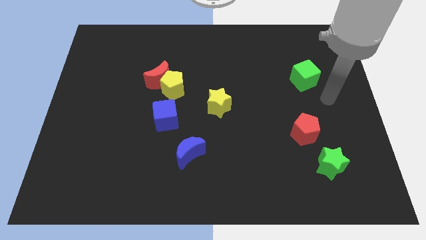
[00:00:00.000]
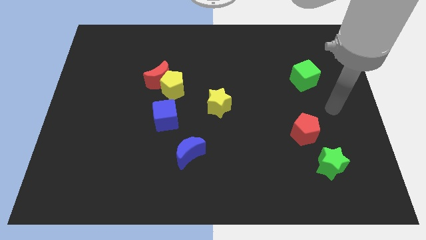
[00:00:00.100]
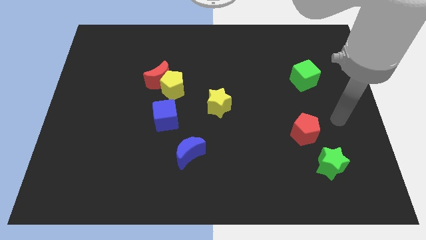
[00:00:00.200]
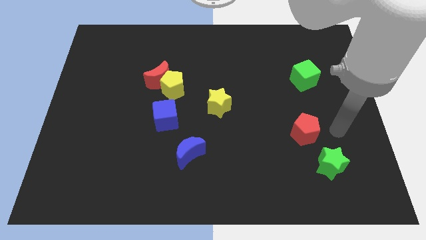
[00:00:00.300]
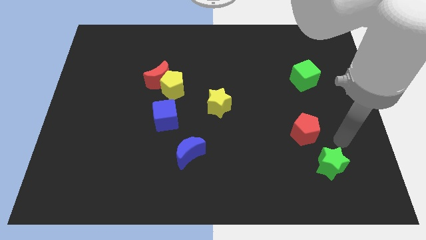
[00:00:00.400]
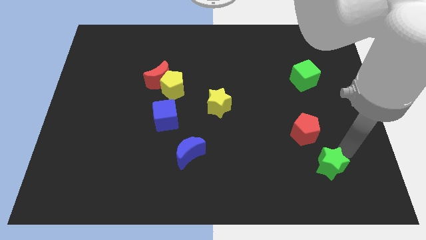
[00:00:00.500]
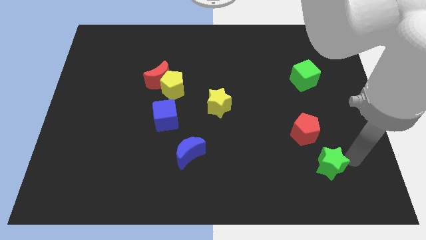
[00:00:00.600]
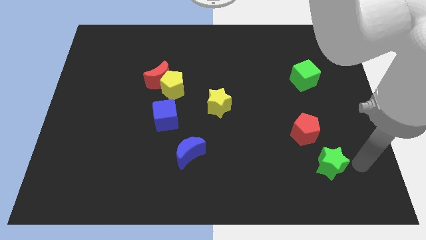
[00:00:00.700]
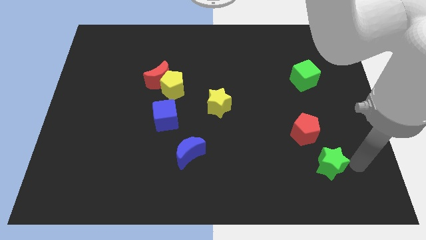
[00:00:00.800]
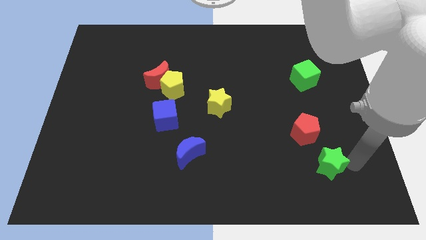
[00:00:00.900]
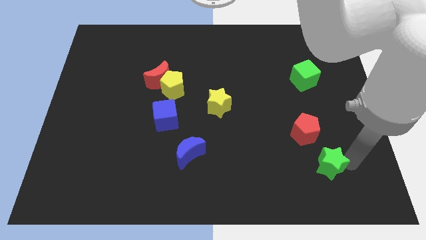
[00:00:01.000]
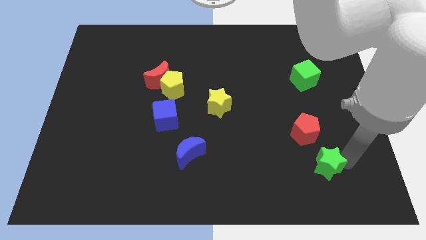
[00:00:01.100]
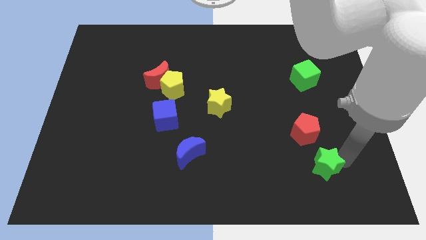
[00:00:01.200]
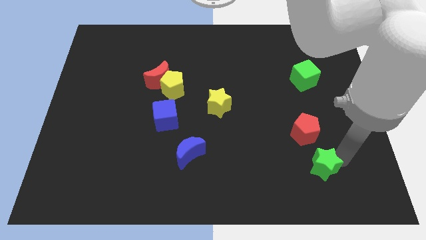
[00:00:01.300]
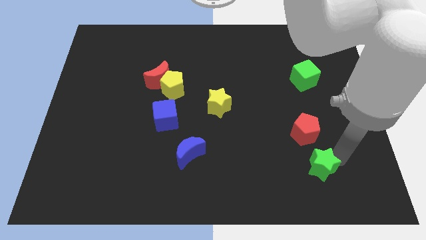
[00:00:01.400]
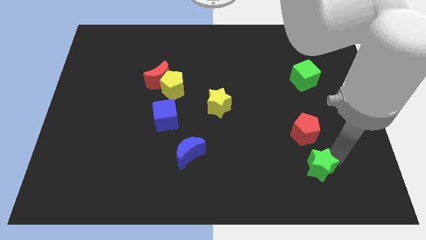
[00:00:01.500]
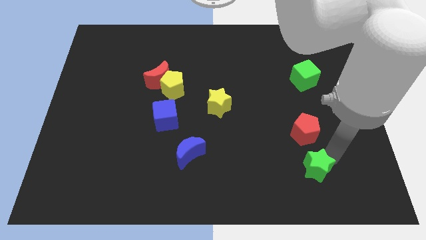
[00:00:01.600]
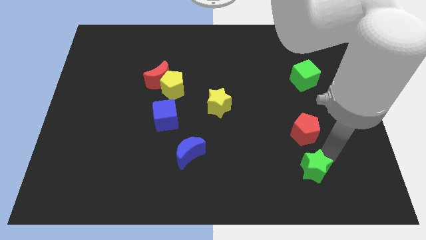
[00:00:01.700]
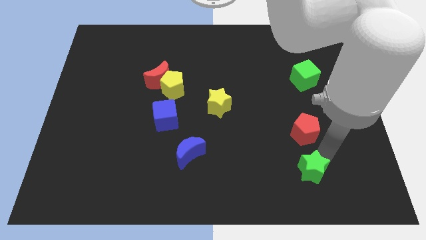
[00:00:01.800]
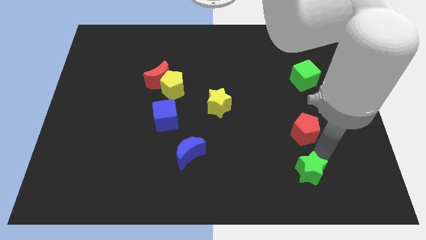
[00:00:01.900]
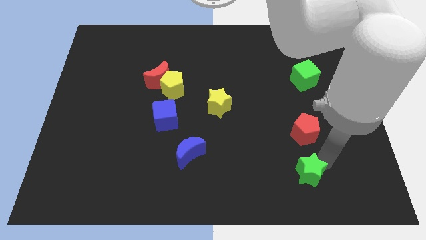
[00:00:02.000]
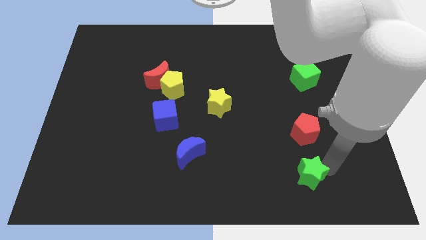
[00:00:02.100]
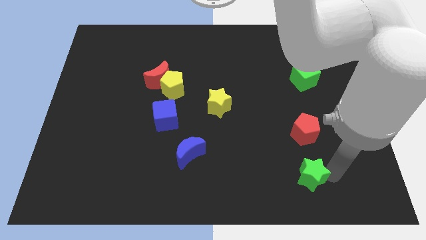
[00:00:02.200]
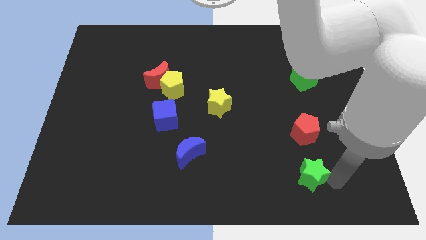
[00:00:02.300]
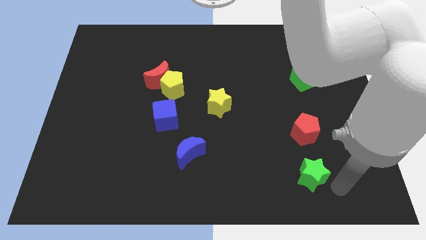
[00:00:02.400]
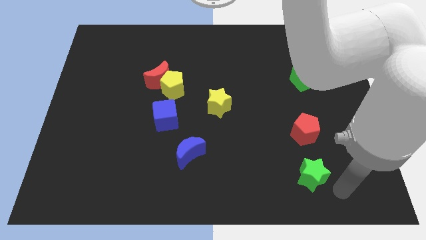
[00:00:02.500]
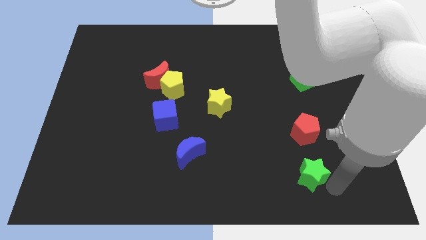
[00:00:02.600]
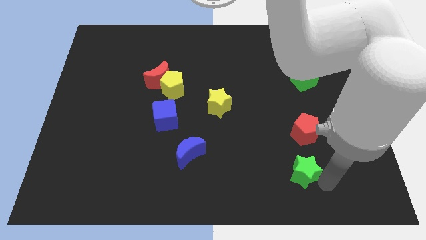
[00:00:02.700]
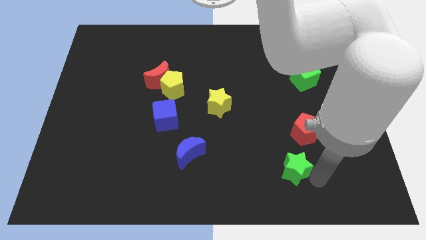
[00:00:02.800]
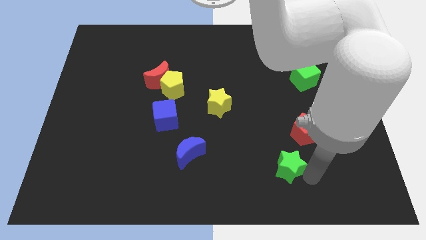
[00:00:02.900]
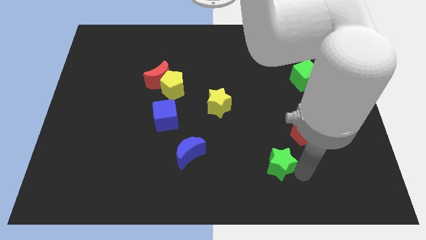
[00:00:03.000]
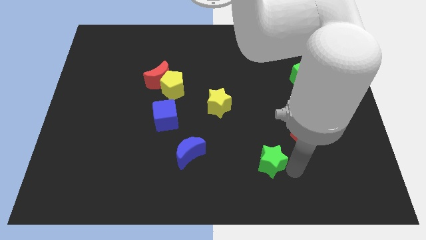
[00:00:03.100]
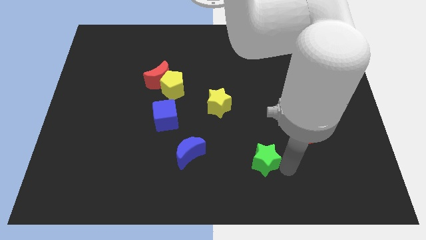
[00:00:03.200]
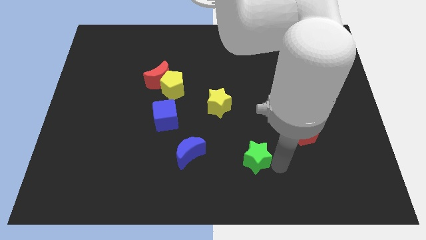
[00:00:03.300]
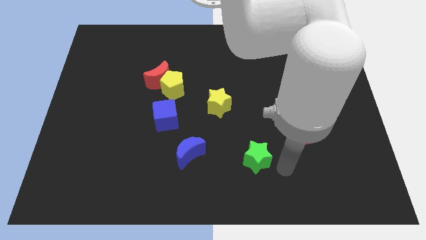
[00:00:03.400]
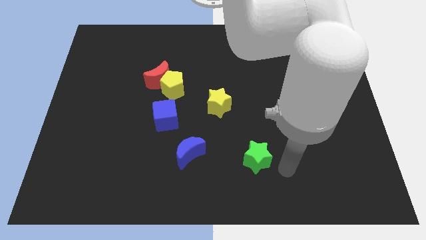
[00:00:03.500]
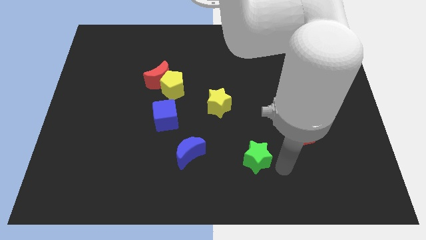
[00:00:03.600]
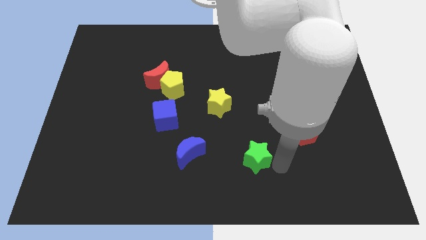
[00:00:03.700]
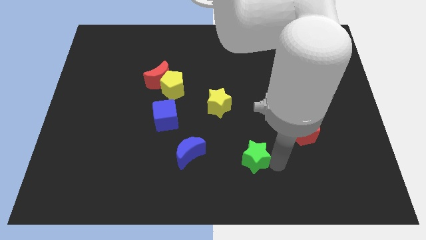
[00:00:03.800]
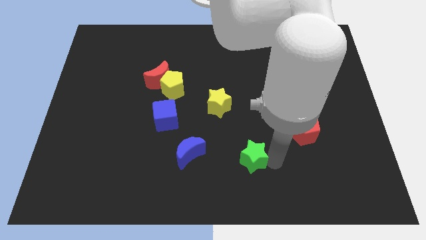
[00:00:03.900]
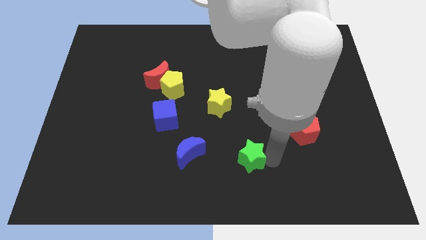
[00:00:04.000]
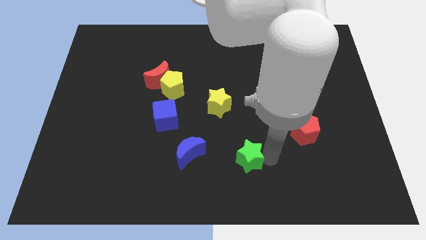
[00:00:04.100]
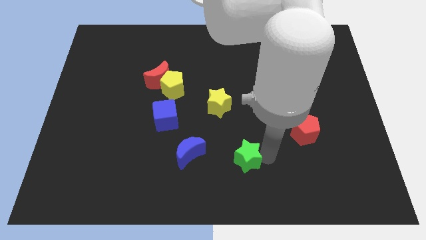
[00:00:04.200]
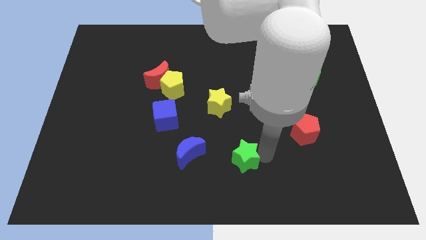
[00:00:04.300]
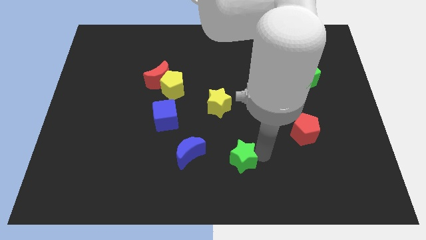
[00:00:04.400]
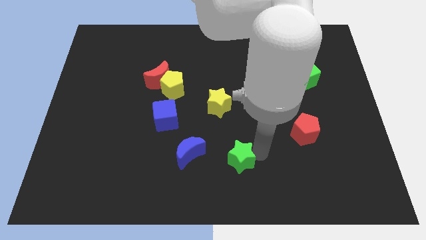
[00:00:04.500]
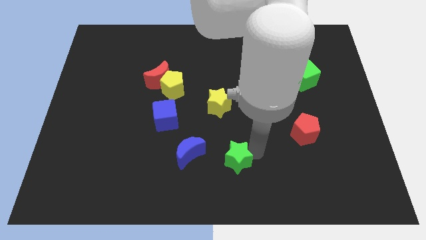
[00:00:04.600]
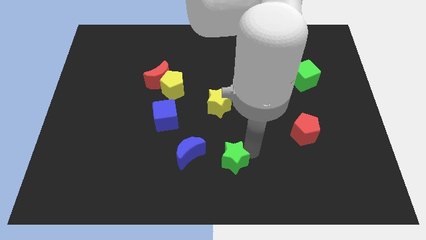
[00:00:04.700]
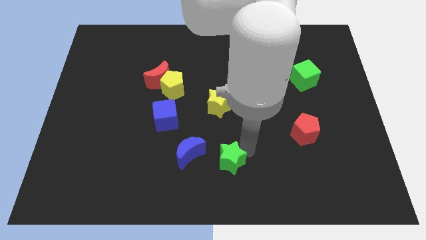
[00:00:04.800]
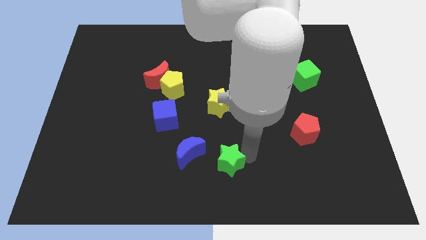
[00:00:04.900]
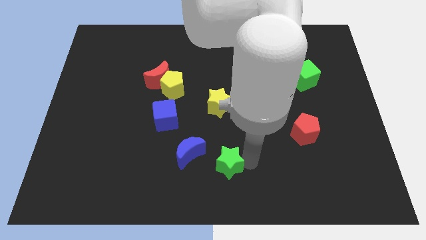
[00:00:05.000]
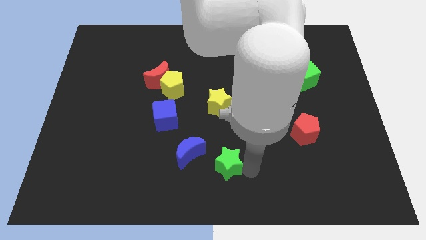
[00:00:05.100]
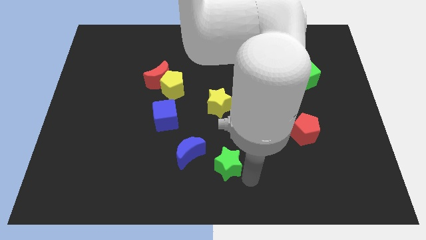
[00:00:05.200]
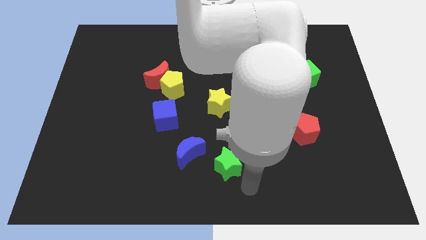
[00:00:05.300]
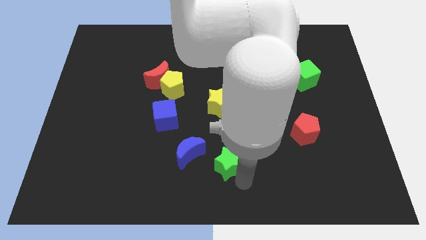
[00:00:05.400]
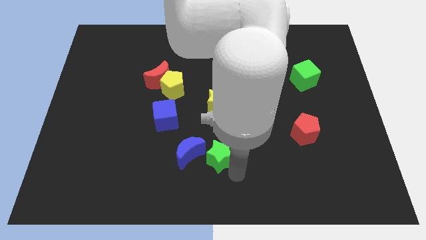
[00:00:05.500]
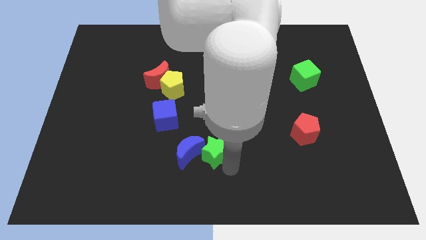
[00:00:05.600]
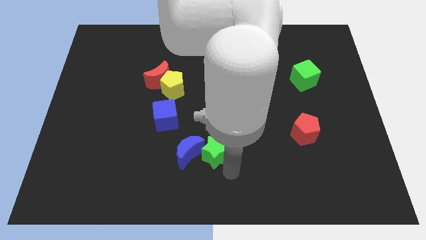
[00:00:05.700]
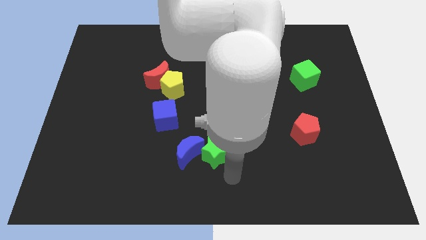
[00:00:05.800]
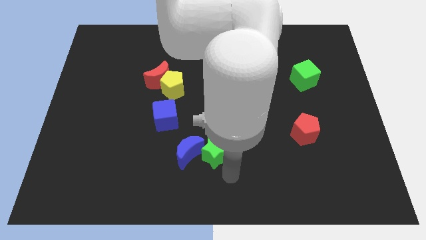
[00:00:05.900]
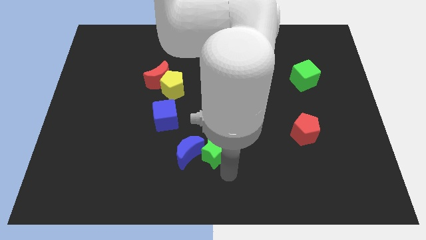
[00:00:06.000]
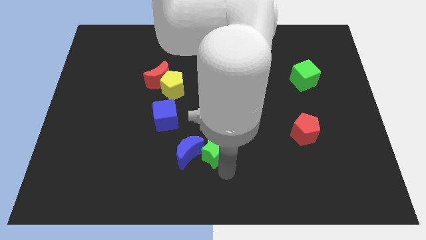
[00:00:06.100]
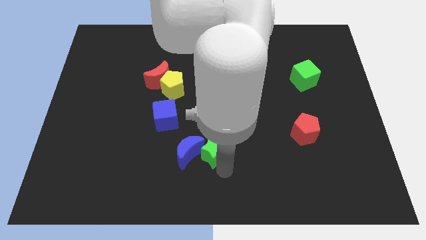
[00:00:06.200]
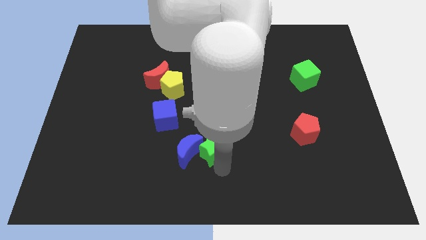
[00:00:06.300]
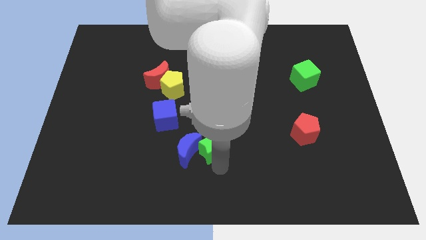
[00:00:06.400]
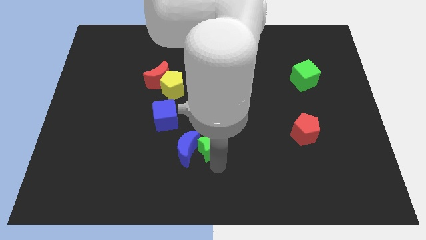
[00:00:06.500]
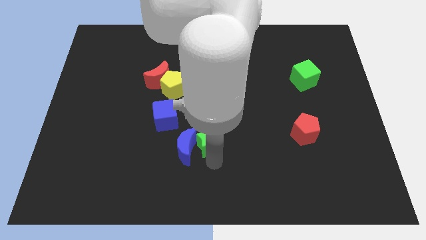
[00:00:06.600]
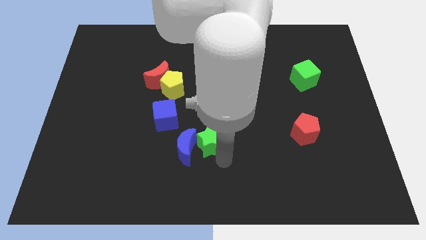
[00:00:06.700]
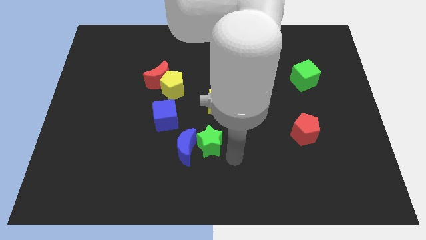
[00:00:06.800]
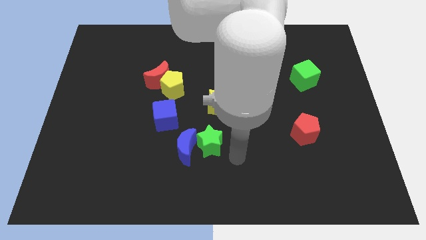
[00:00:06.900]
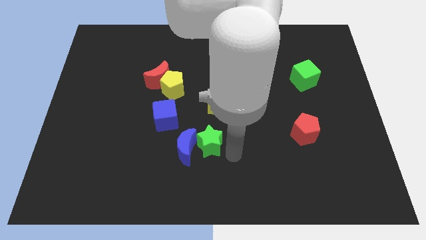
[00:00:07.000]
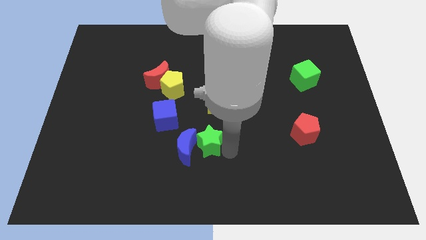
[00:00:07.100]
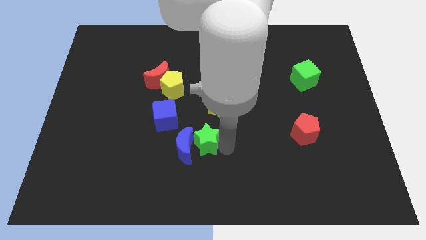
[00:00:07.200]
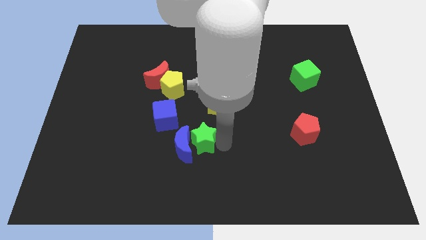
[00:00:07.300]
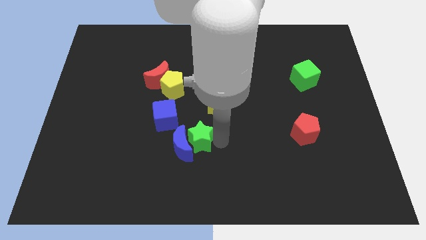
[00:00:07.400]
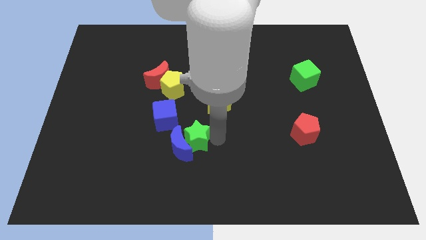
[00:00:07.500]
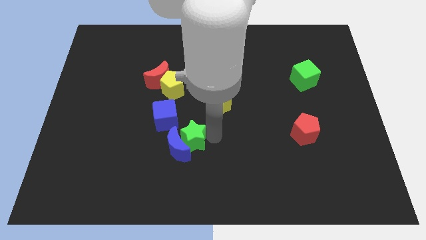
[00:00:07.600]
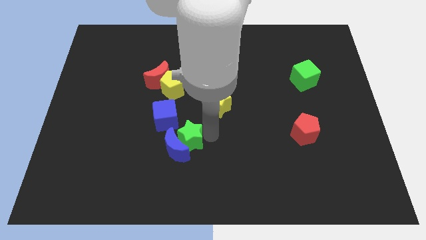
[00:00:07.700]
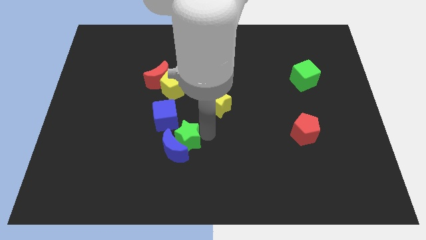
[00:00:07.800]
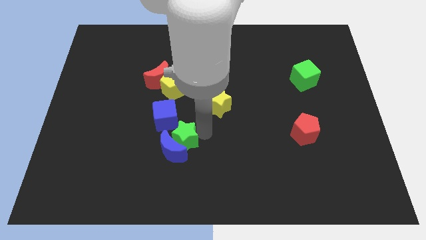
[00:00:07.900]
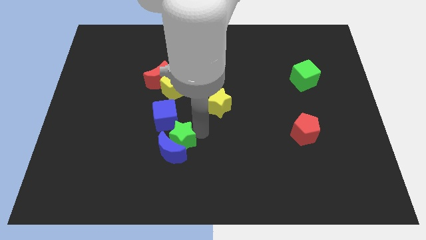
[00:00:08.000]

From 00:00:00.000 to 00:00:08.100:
put the green star below the yellow pentagon
